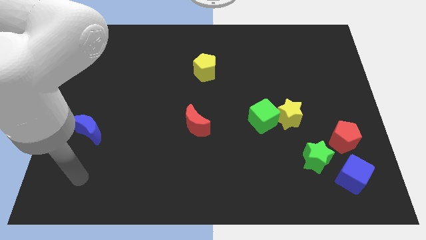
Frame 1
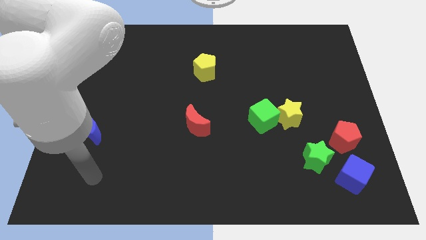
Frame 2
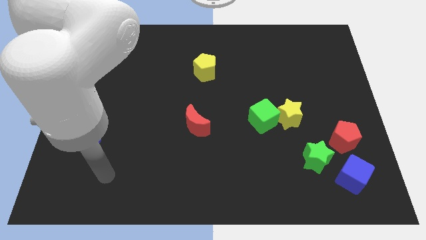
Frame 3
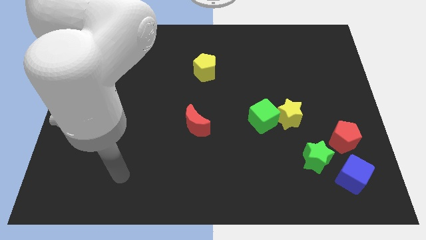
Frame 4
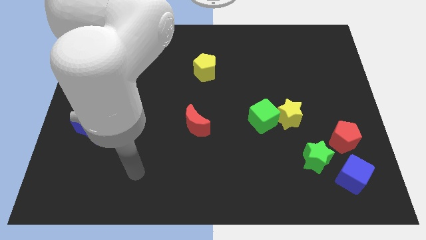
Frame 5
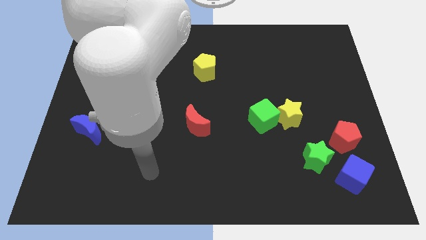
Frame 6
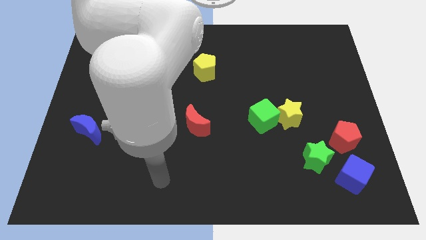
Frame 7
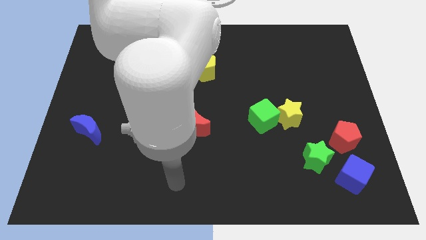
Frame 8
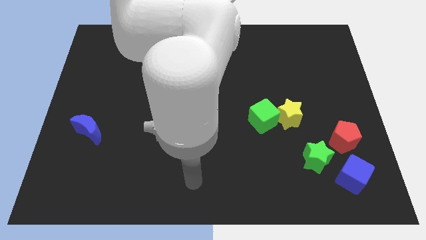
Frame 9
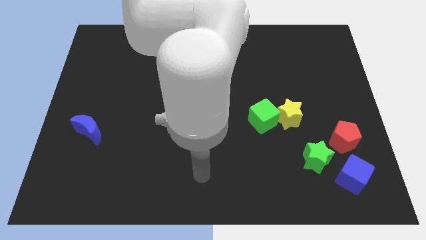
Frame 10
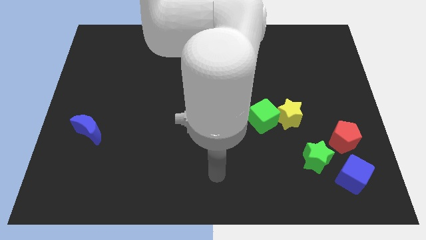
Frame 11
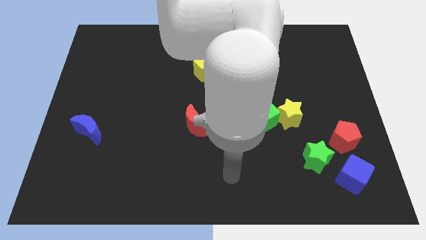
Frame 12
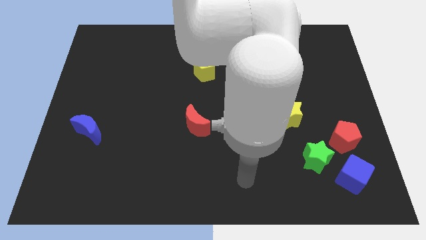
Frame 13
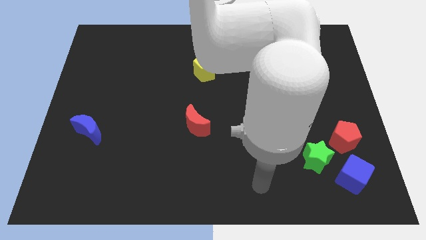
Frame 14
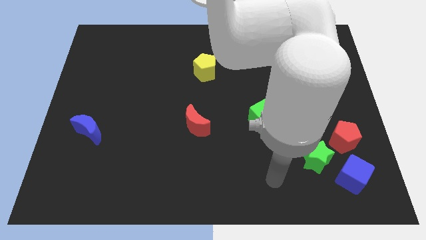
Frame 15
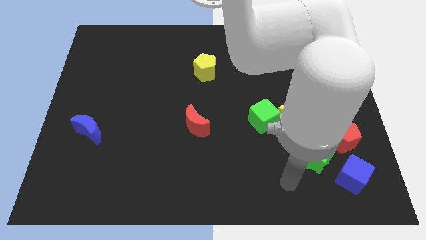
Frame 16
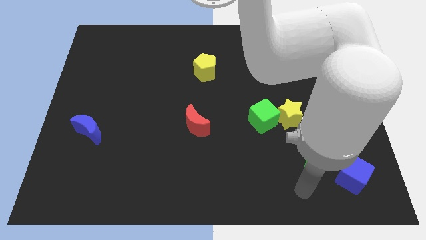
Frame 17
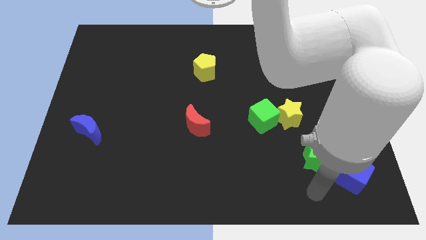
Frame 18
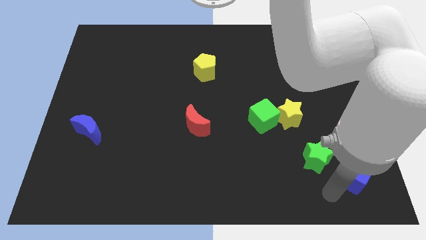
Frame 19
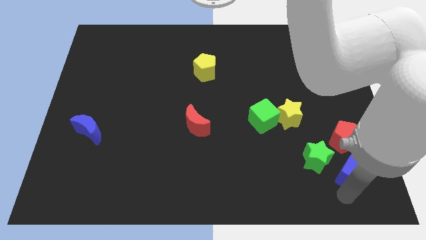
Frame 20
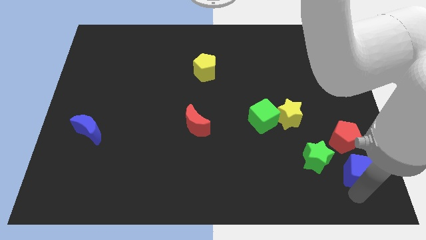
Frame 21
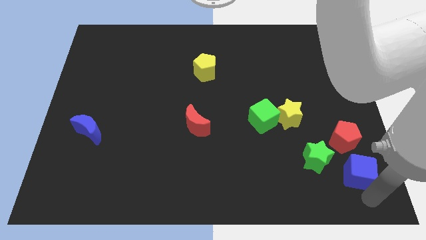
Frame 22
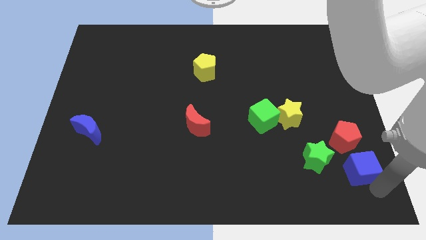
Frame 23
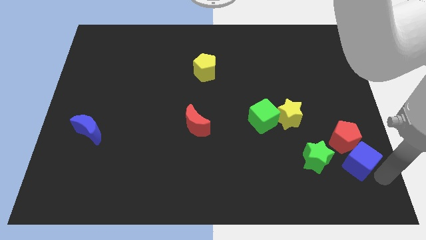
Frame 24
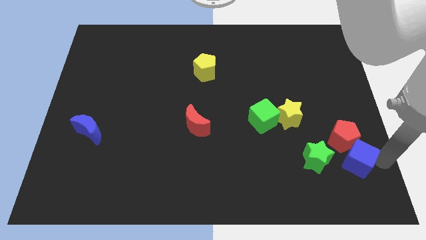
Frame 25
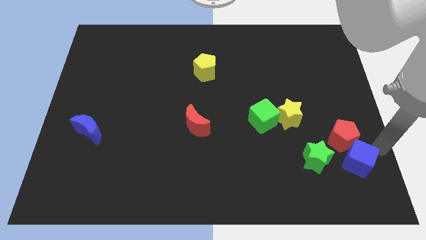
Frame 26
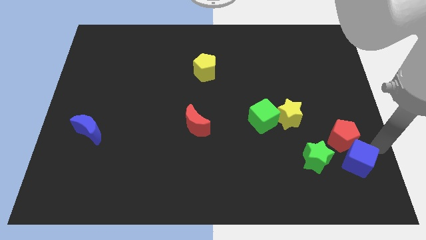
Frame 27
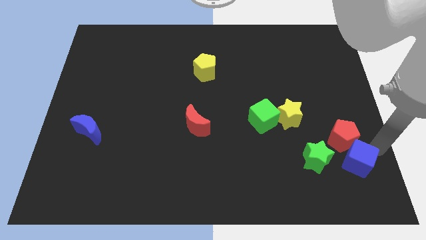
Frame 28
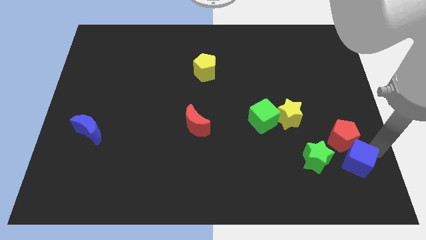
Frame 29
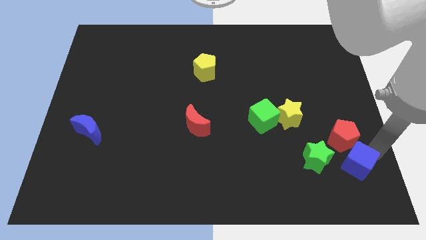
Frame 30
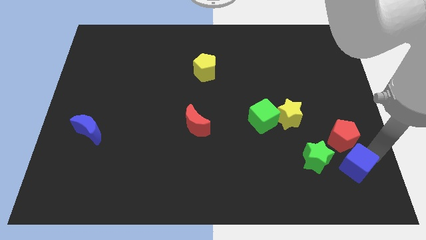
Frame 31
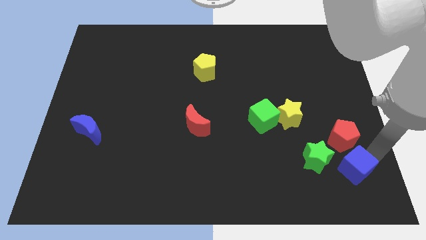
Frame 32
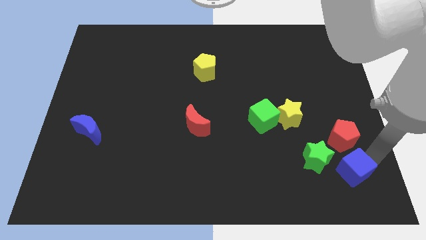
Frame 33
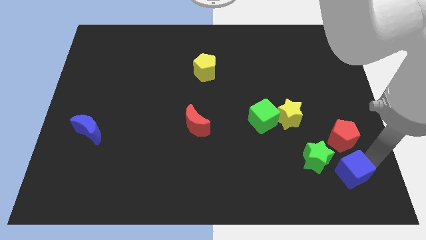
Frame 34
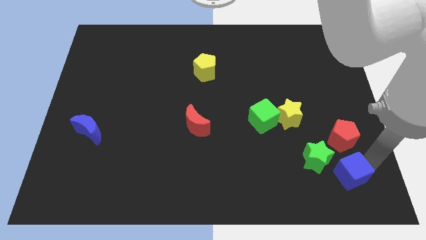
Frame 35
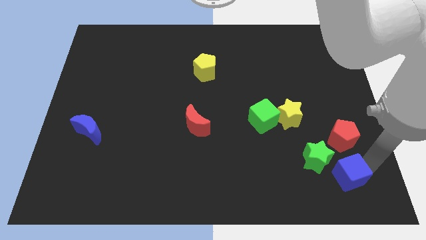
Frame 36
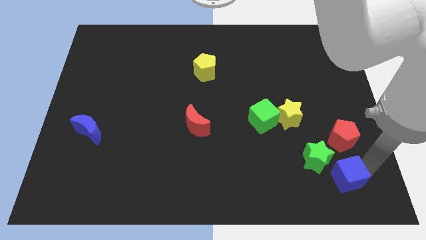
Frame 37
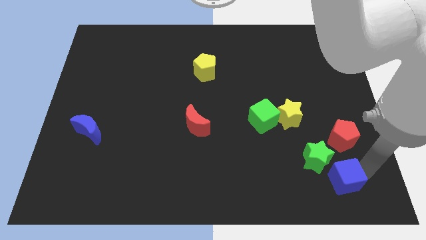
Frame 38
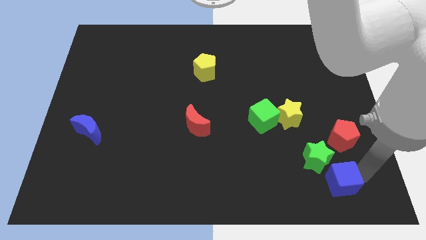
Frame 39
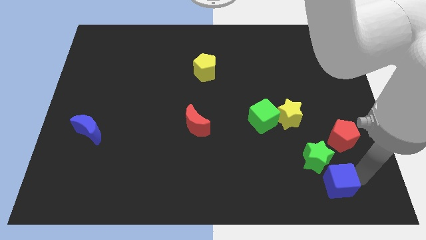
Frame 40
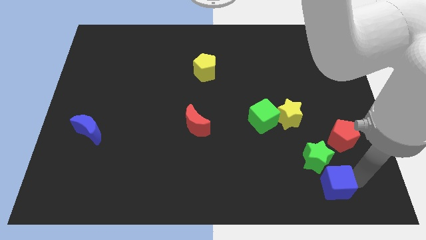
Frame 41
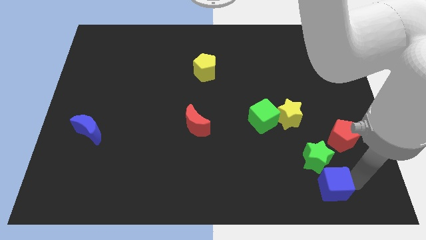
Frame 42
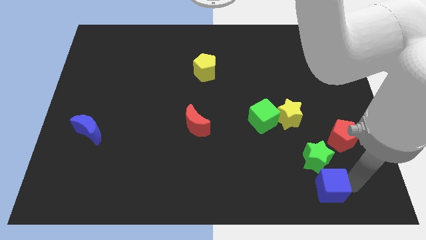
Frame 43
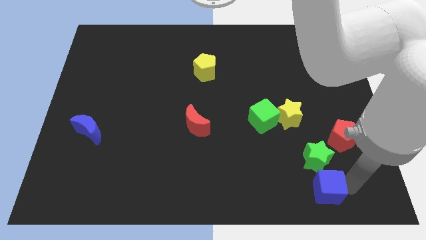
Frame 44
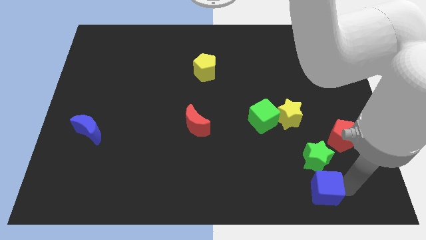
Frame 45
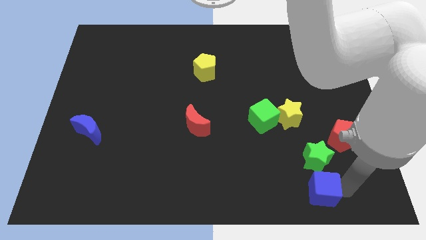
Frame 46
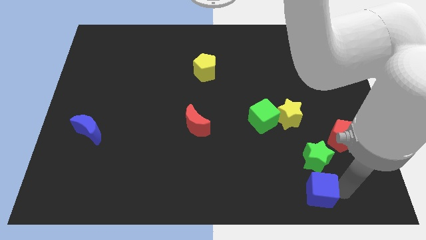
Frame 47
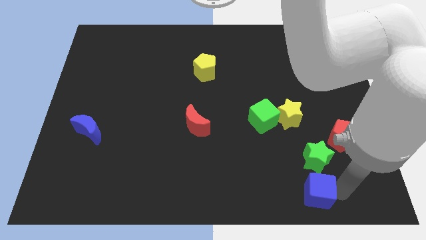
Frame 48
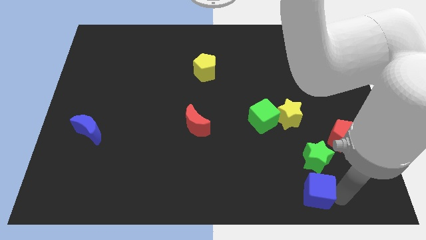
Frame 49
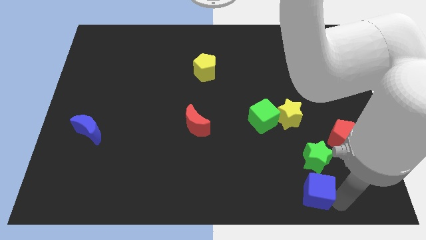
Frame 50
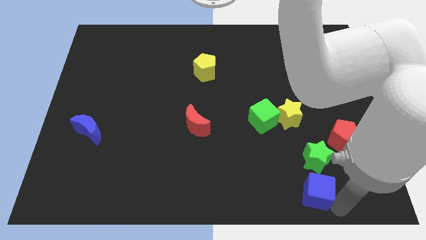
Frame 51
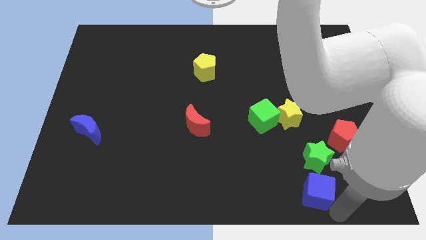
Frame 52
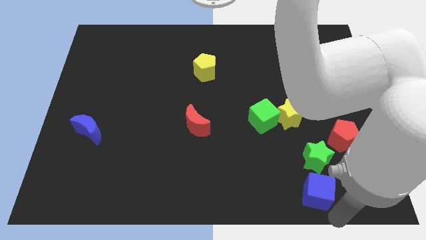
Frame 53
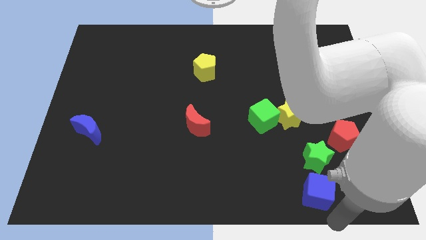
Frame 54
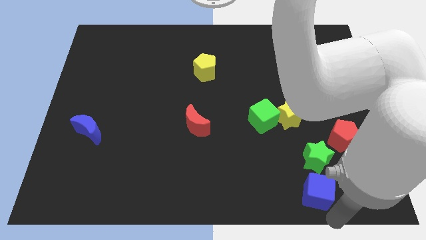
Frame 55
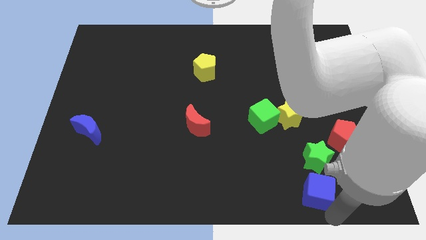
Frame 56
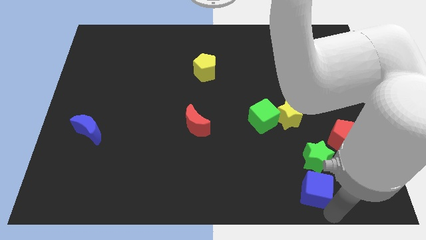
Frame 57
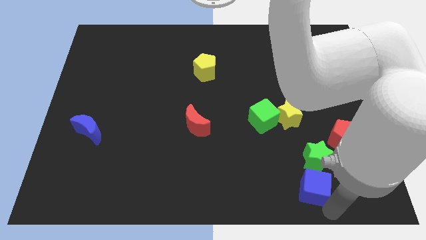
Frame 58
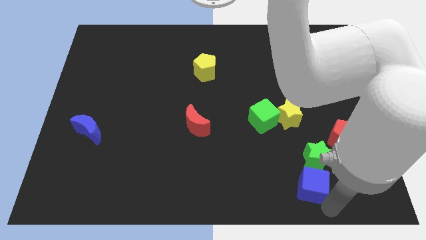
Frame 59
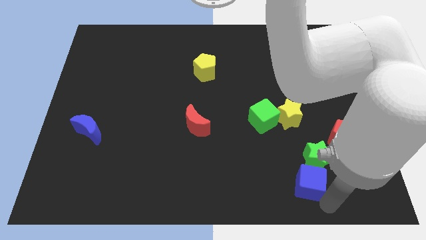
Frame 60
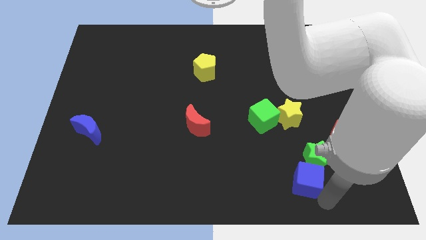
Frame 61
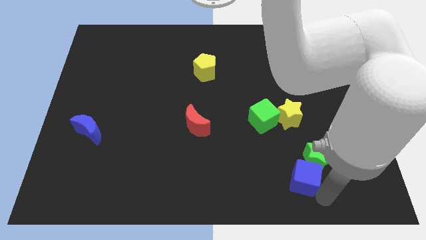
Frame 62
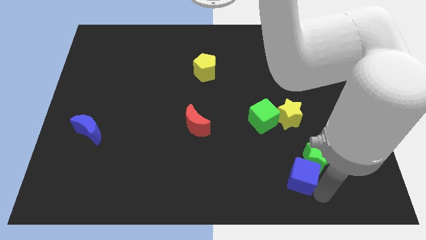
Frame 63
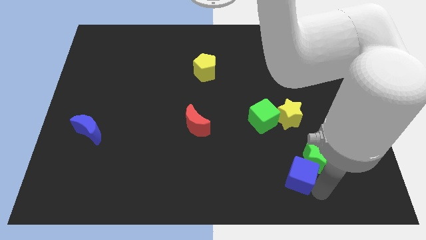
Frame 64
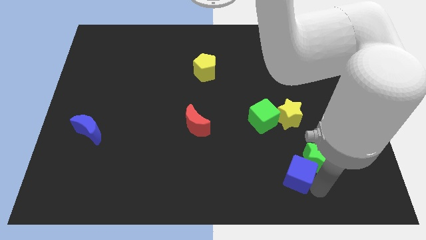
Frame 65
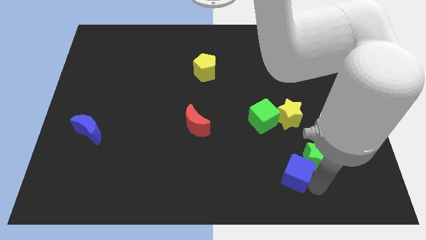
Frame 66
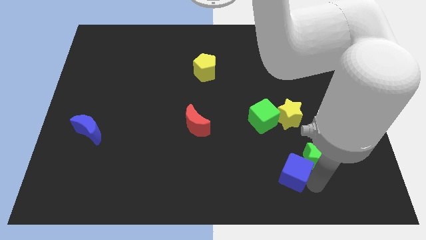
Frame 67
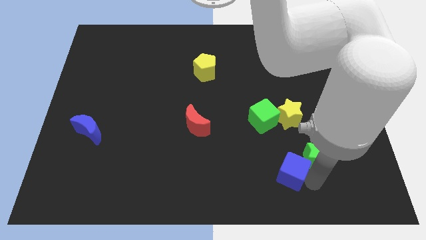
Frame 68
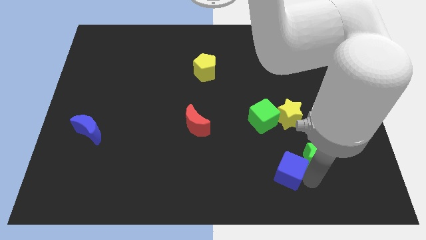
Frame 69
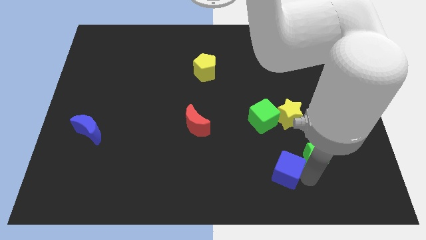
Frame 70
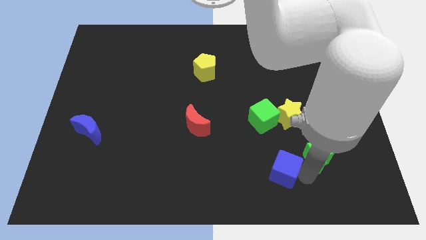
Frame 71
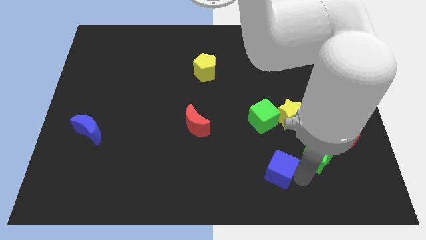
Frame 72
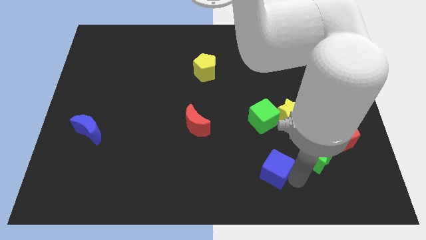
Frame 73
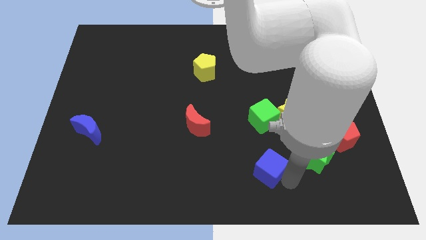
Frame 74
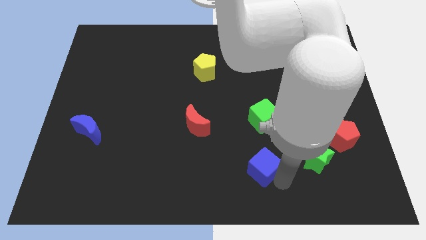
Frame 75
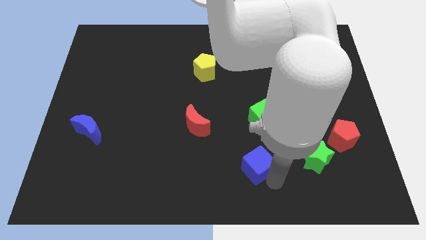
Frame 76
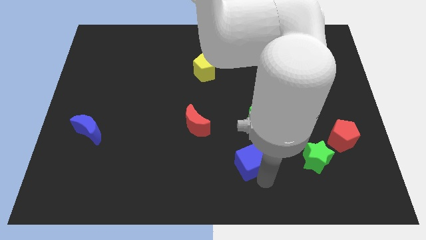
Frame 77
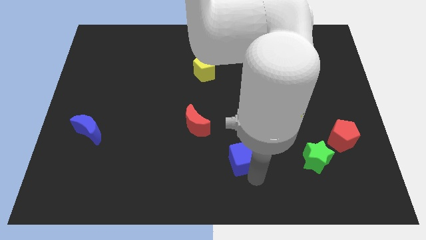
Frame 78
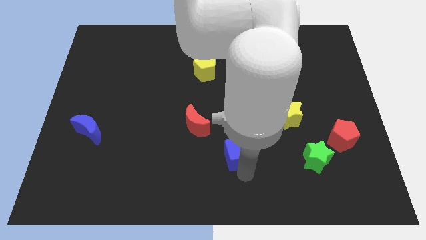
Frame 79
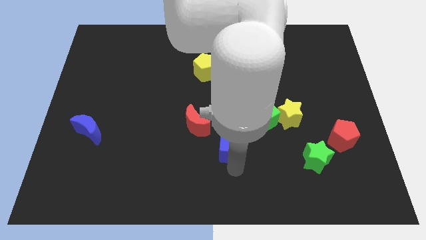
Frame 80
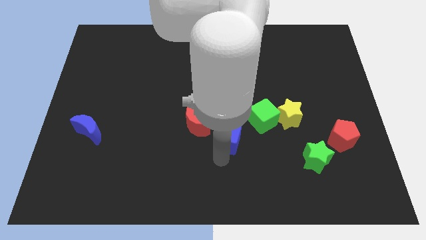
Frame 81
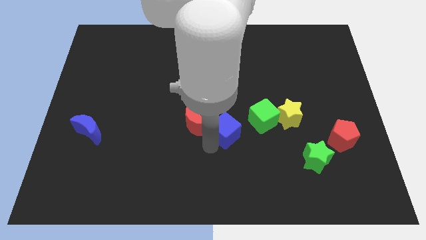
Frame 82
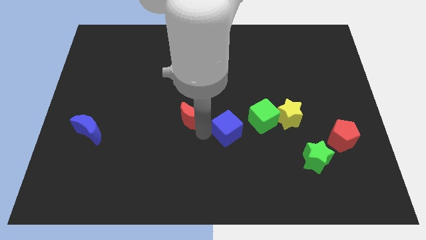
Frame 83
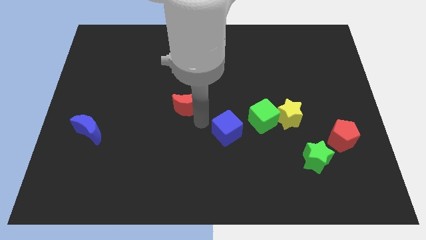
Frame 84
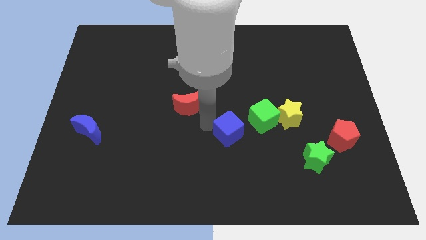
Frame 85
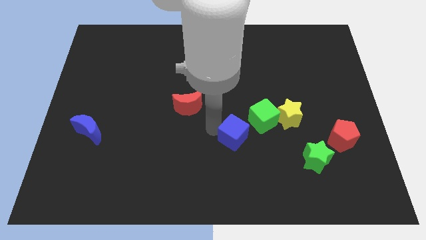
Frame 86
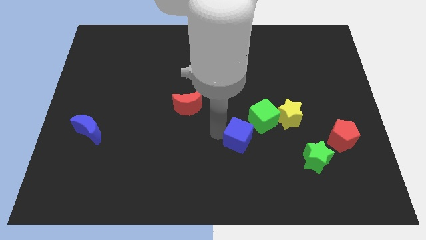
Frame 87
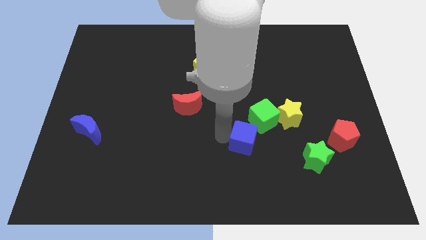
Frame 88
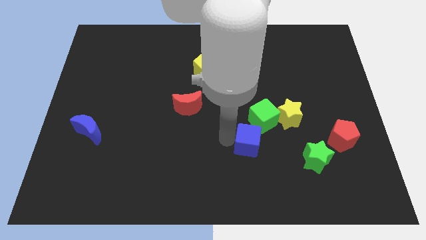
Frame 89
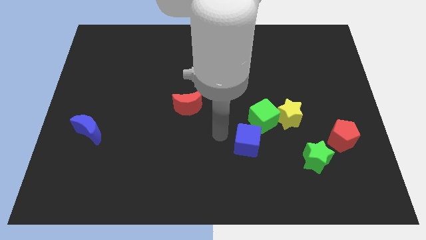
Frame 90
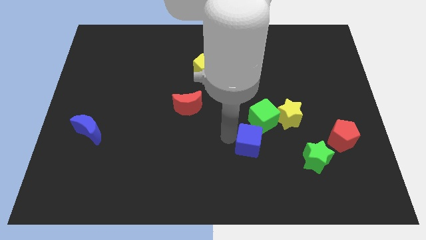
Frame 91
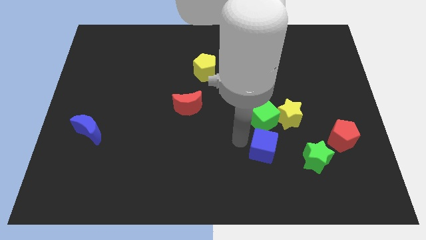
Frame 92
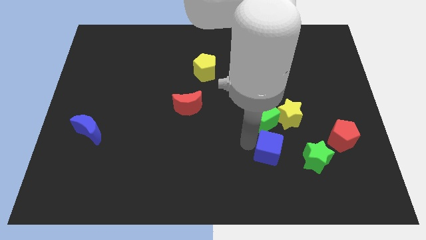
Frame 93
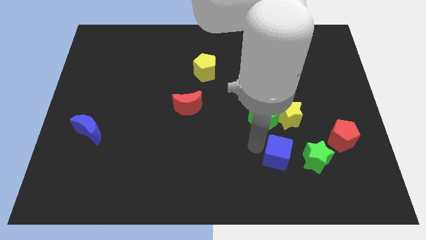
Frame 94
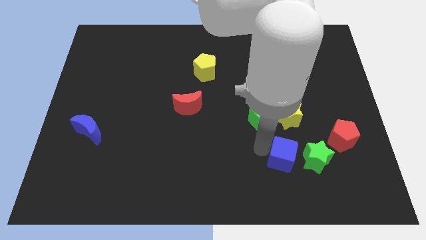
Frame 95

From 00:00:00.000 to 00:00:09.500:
push the blue cube to the top left side of the green star
